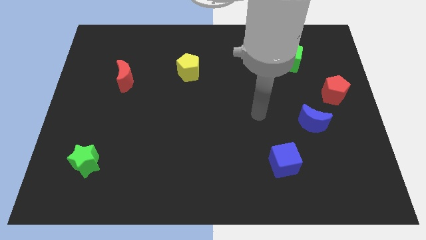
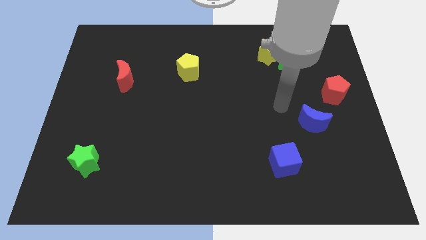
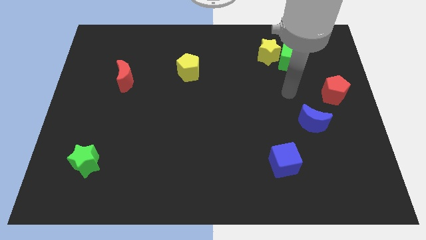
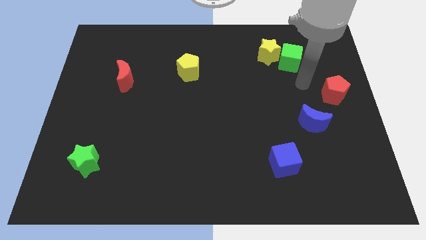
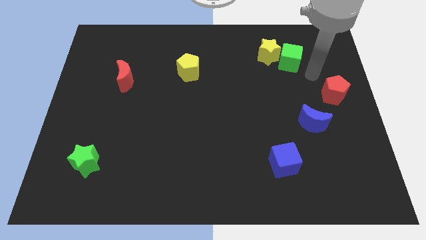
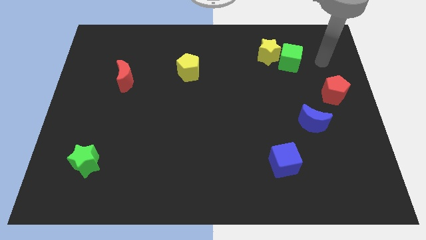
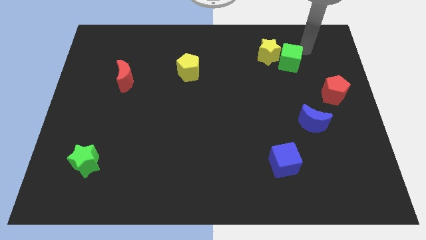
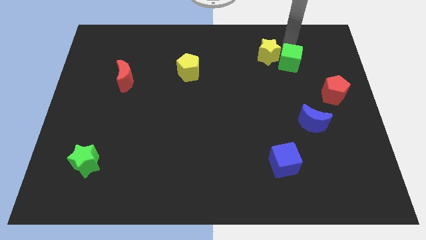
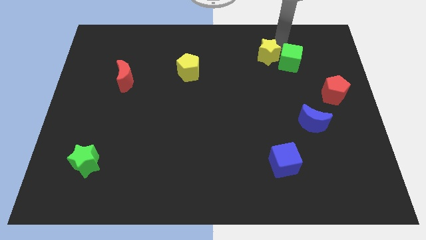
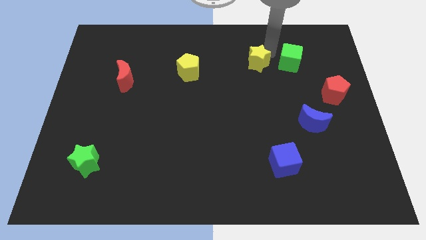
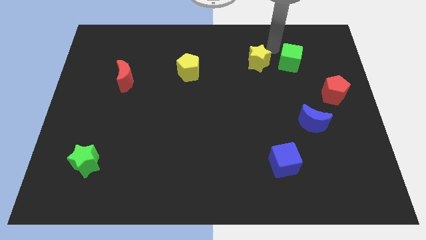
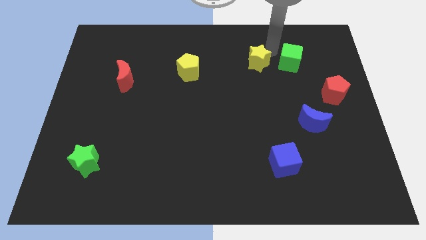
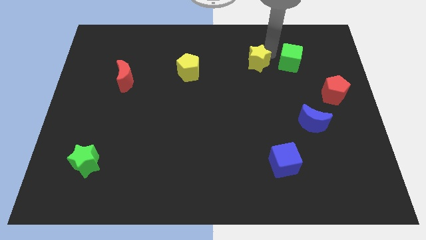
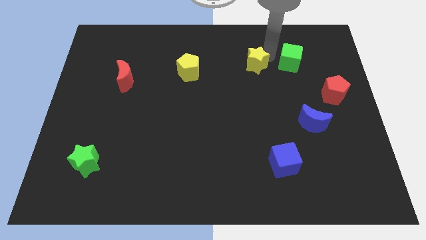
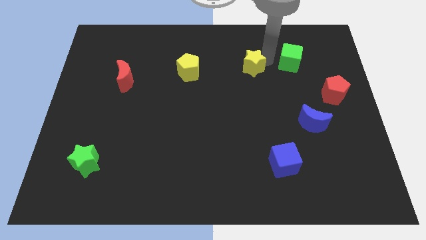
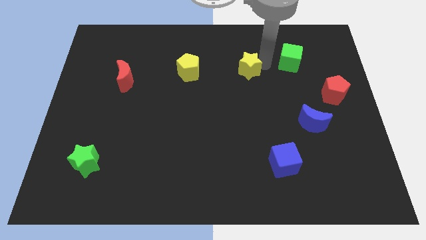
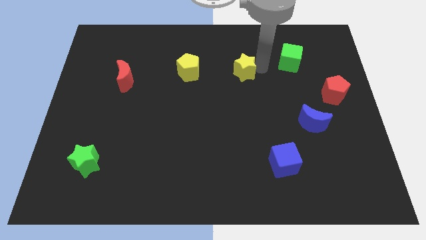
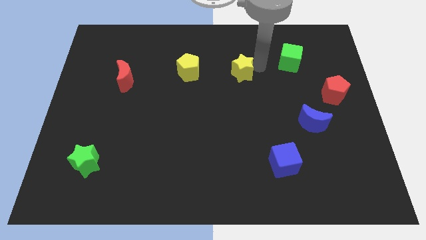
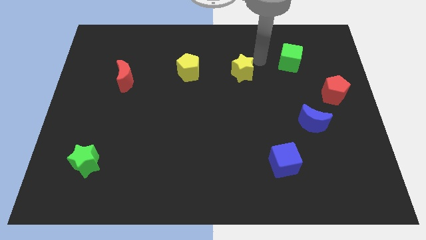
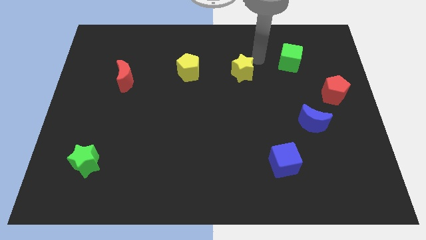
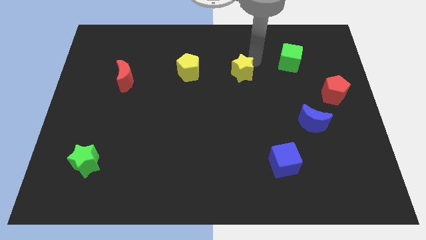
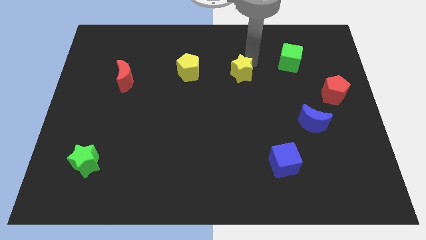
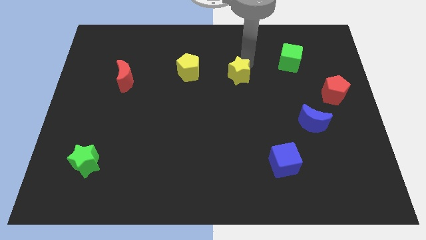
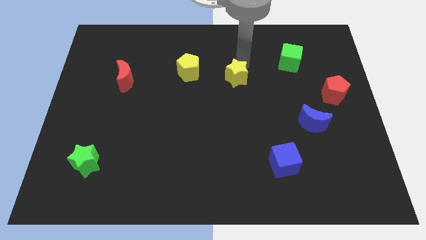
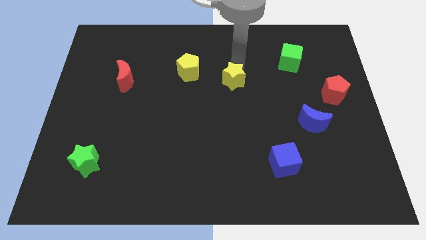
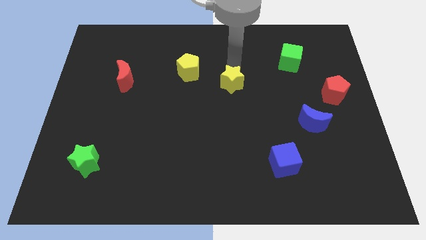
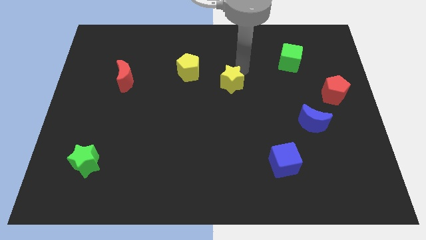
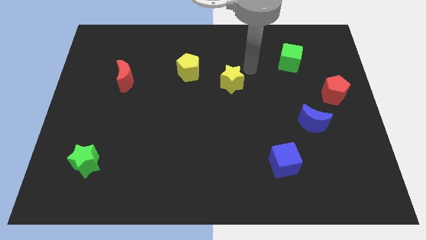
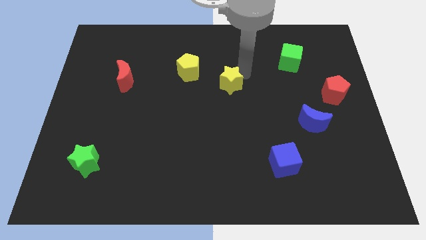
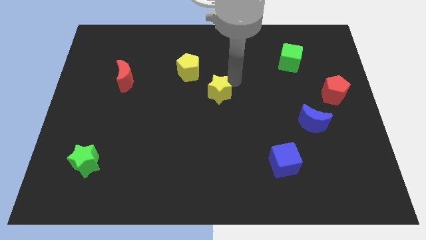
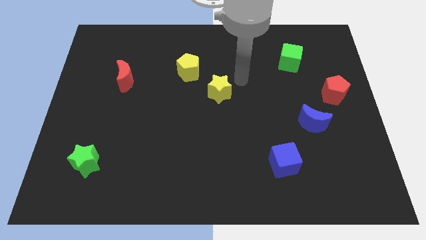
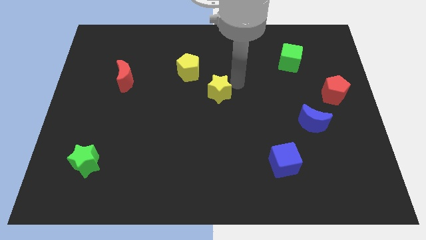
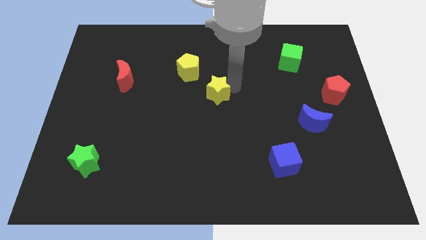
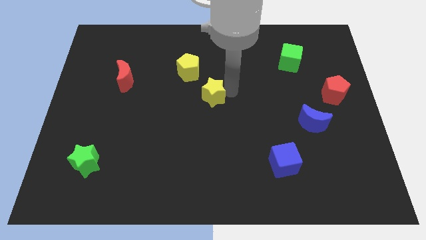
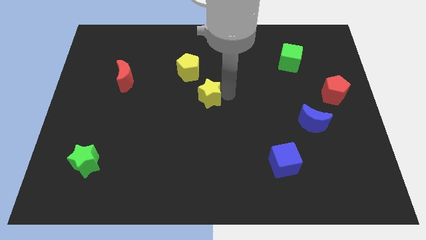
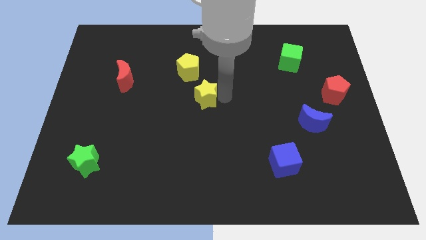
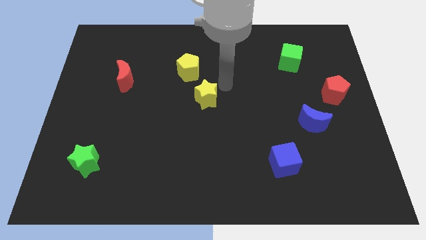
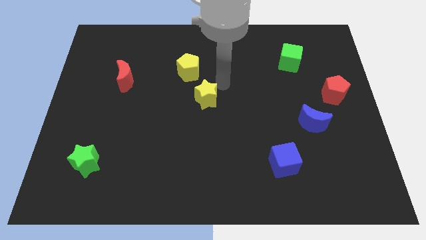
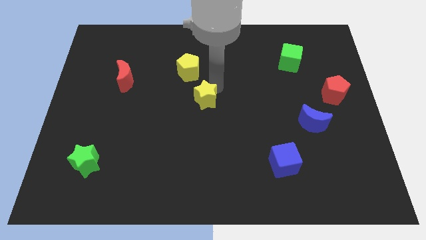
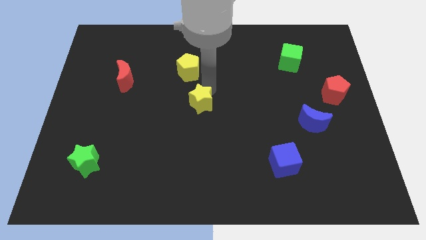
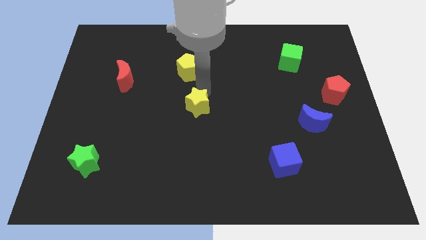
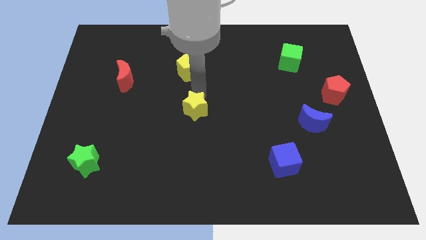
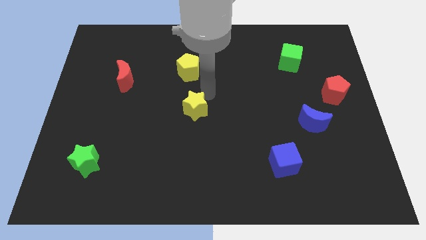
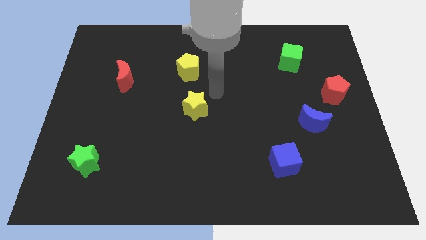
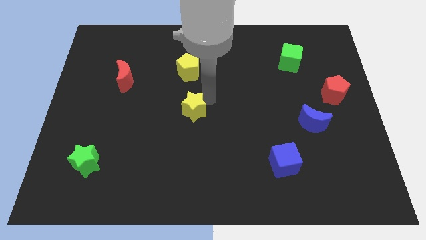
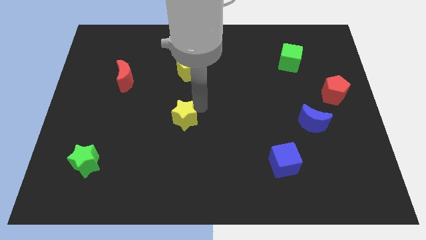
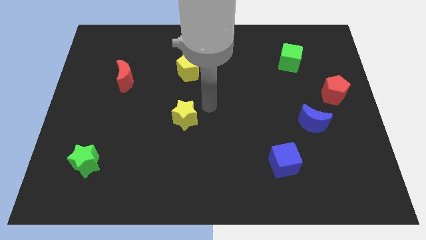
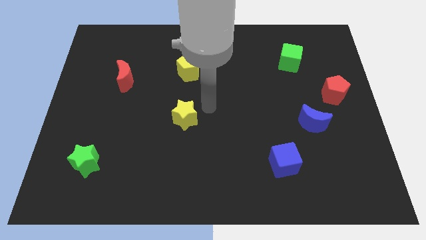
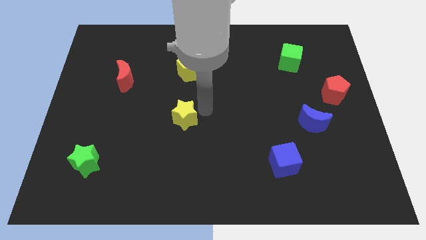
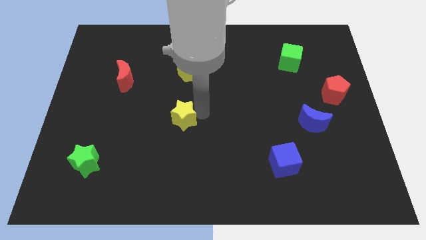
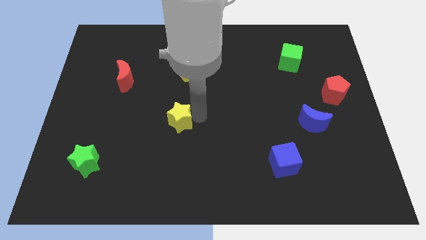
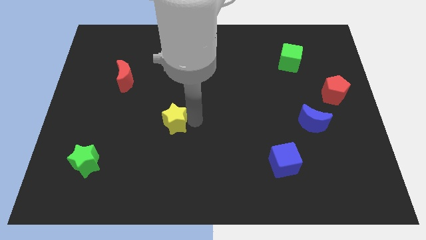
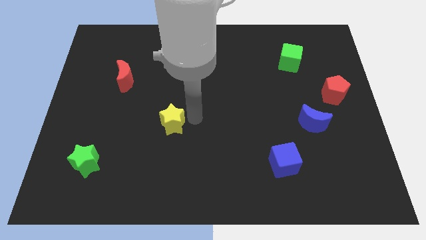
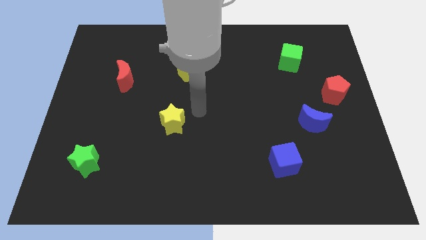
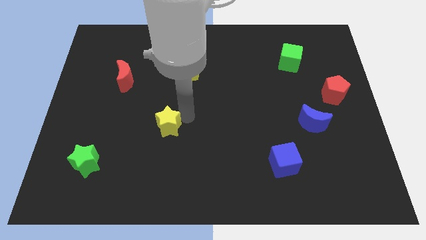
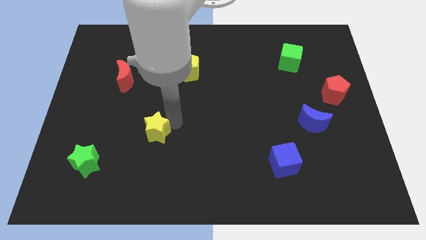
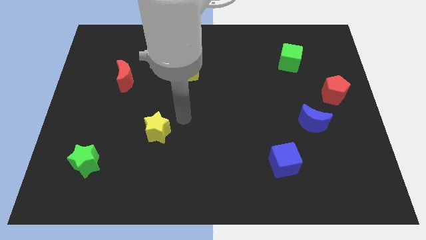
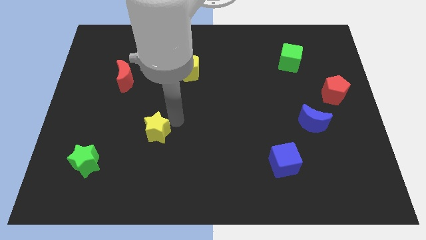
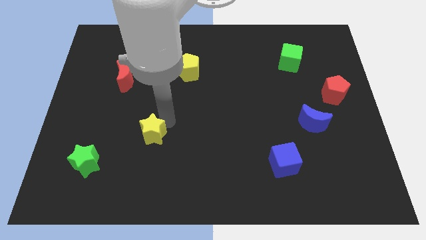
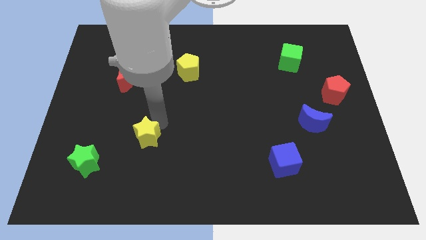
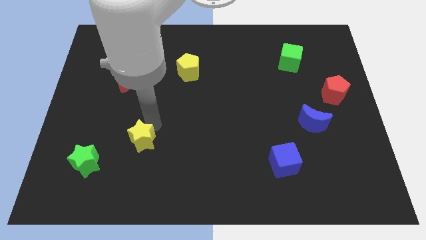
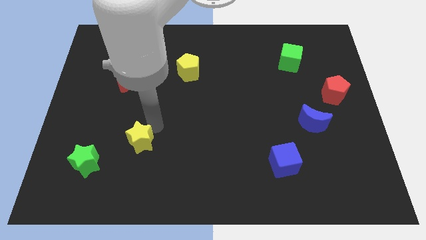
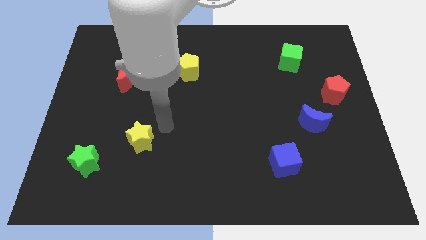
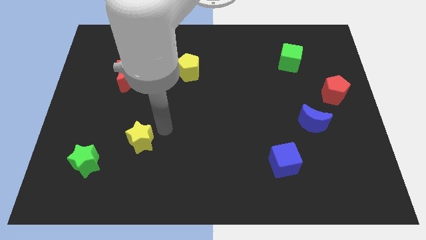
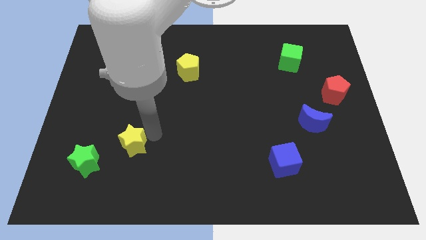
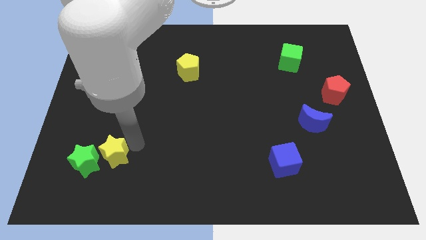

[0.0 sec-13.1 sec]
move the yellow star to the green star

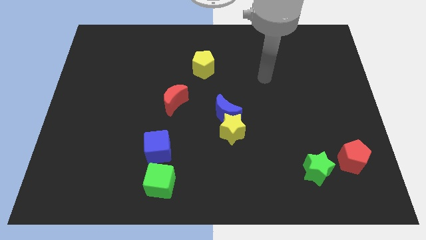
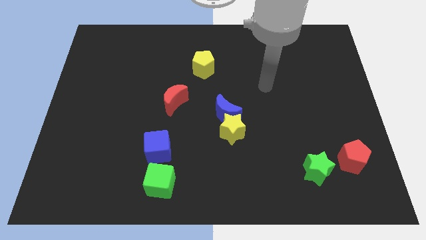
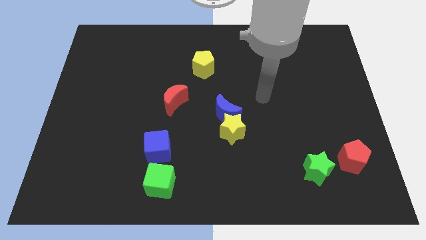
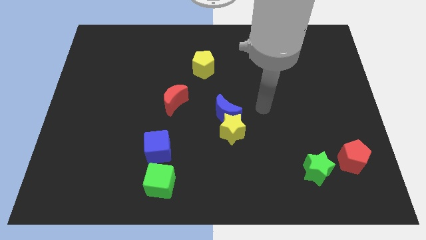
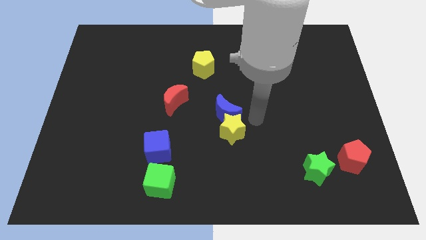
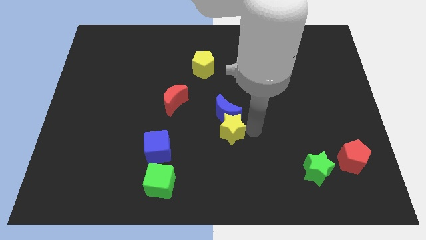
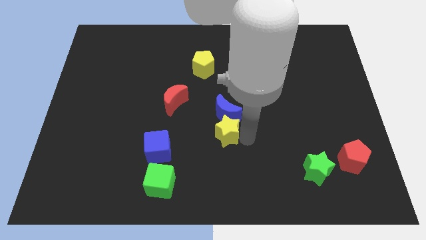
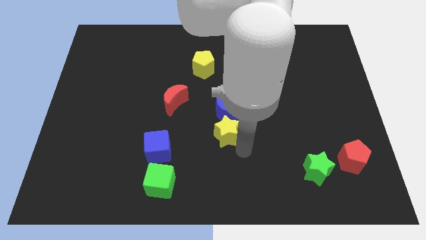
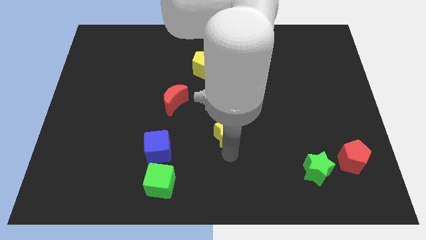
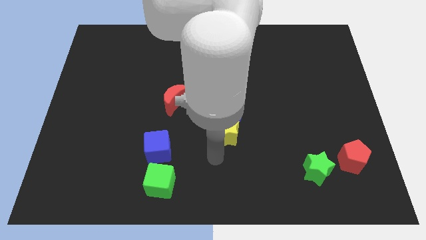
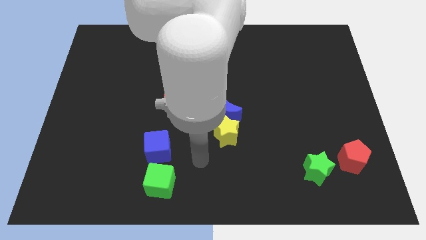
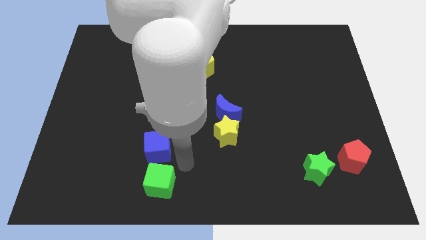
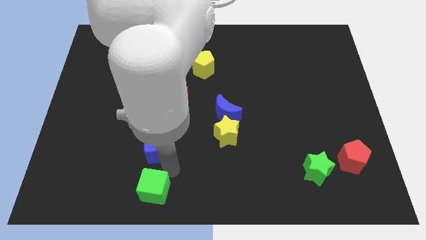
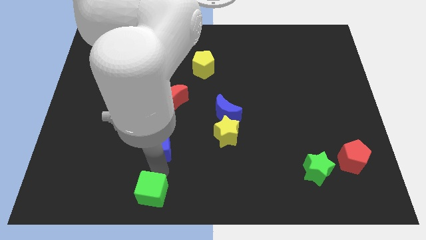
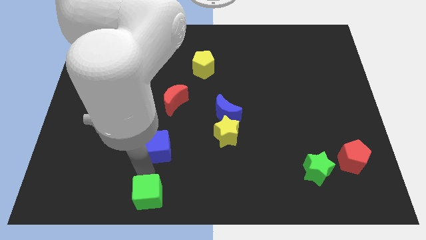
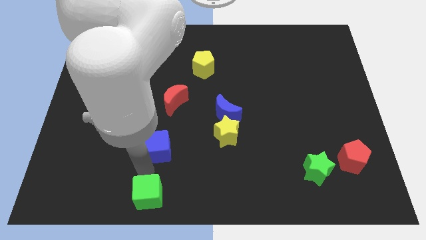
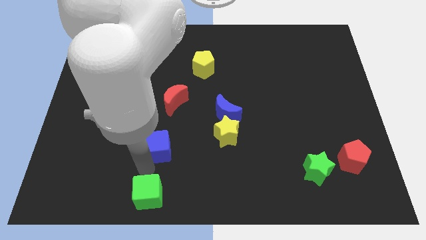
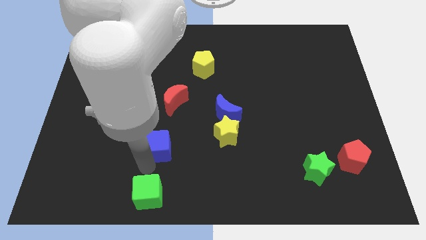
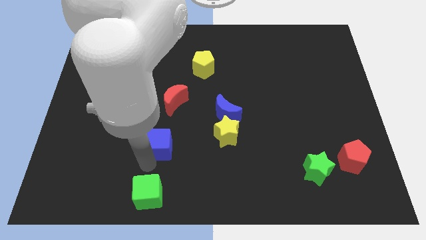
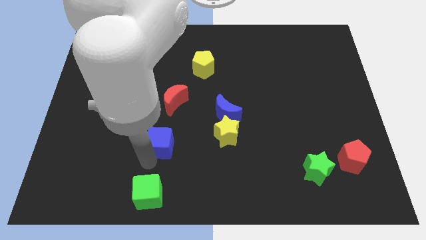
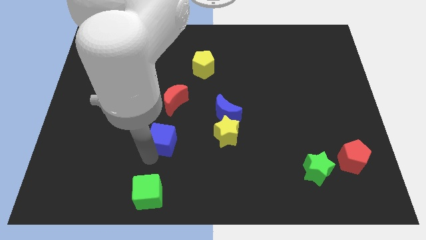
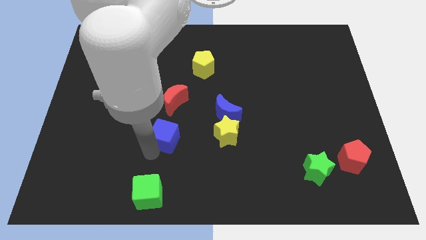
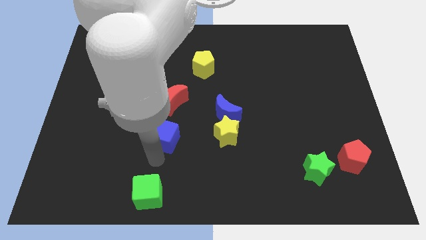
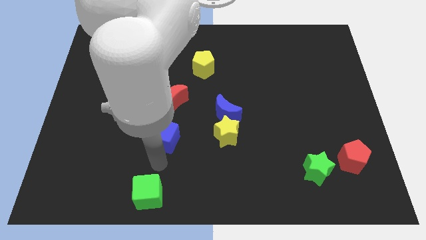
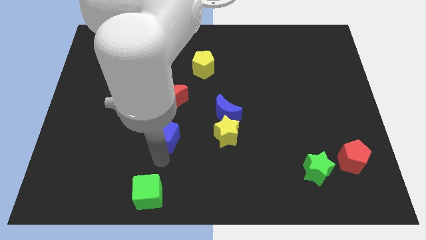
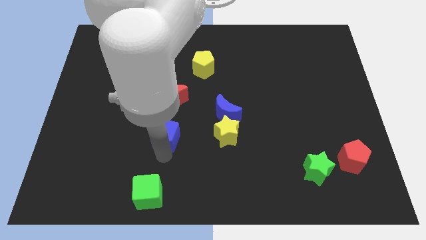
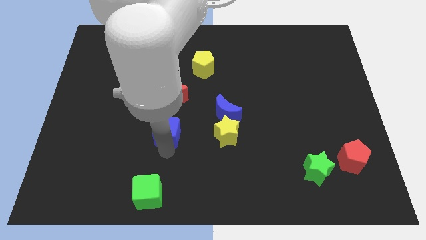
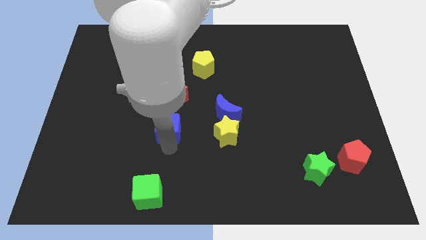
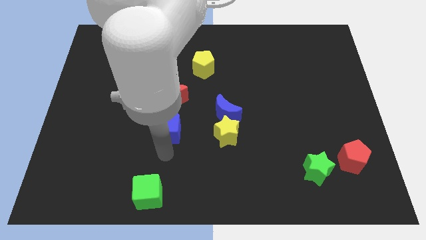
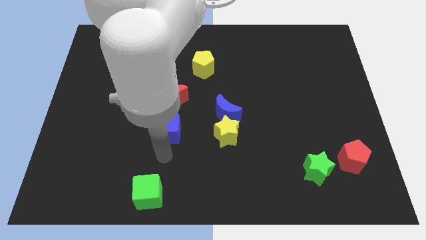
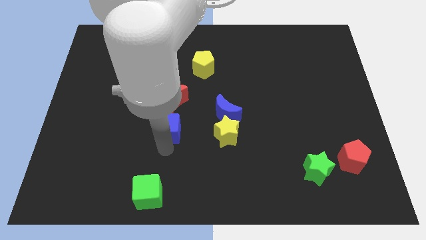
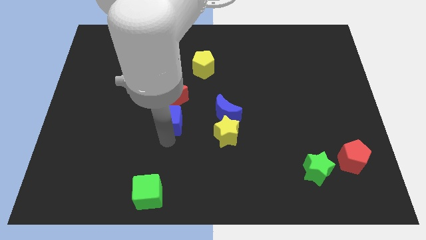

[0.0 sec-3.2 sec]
push the blue cube next to the red moon
